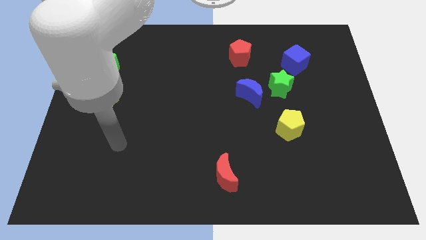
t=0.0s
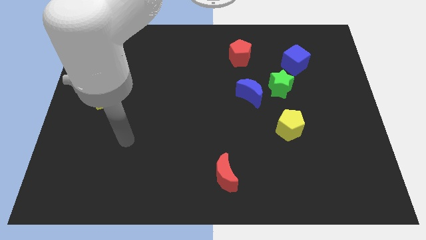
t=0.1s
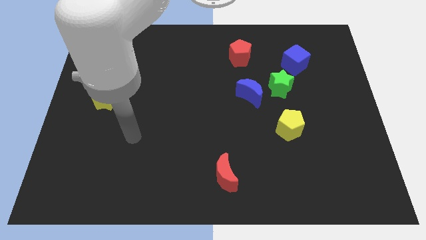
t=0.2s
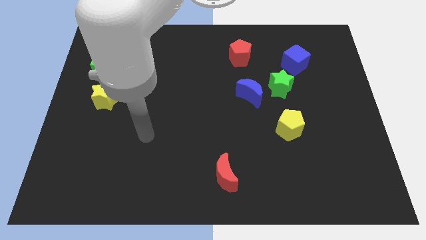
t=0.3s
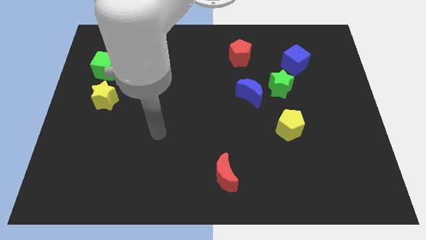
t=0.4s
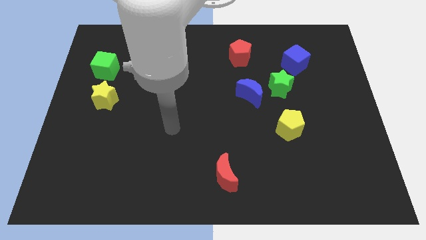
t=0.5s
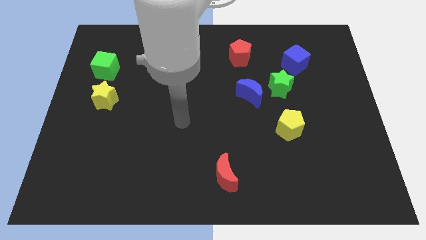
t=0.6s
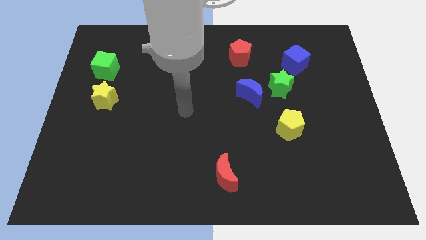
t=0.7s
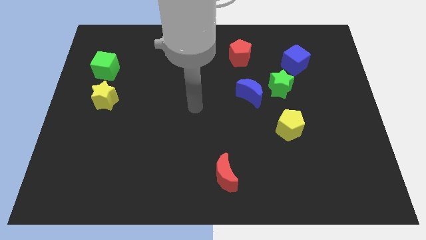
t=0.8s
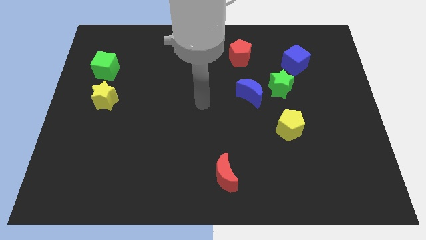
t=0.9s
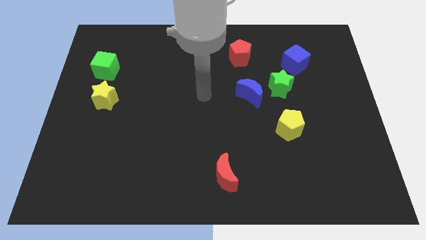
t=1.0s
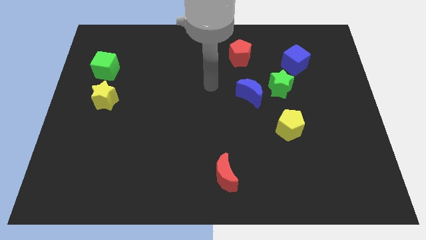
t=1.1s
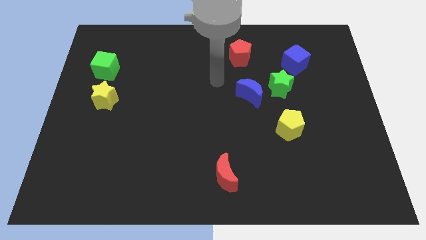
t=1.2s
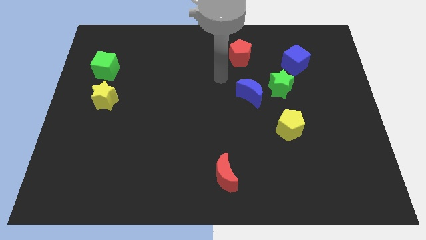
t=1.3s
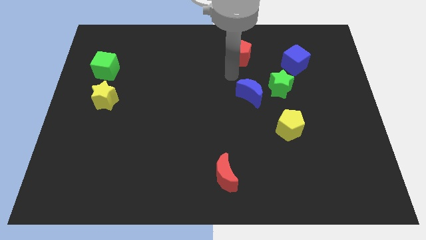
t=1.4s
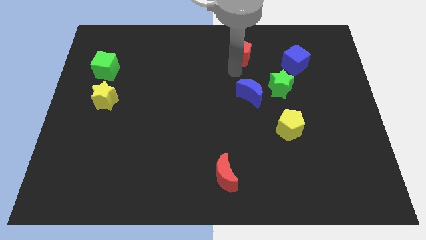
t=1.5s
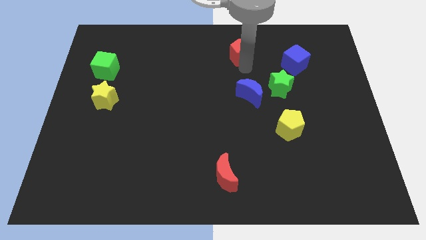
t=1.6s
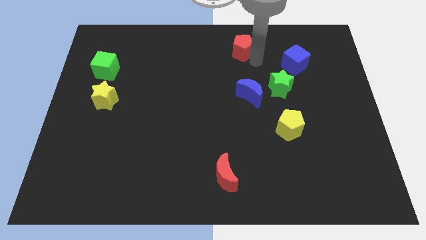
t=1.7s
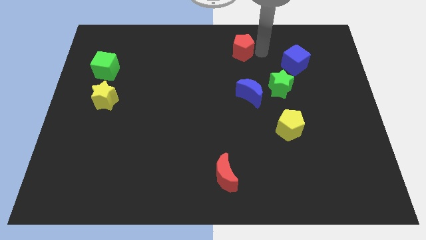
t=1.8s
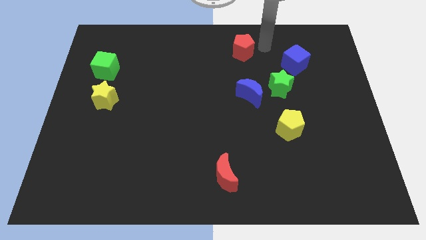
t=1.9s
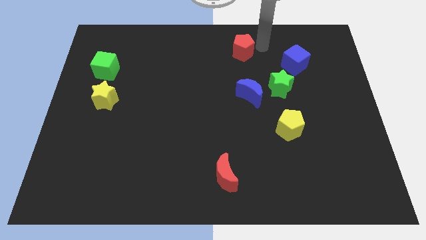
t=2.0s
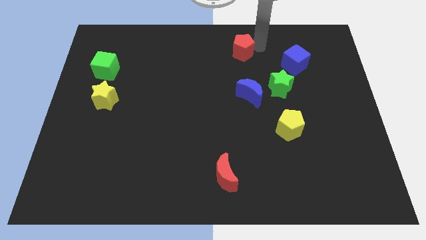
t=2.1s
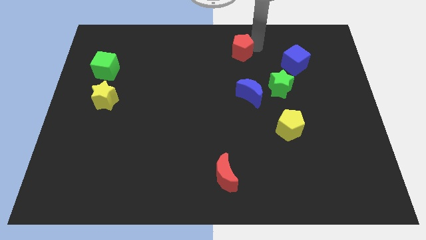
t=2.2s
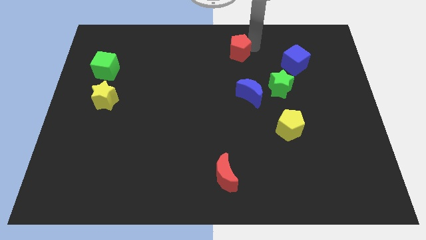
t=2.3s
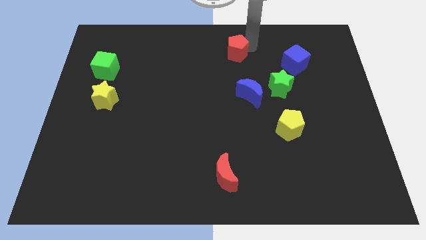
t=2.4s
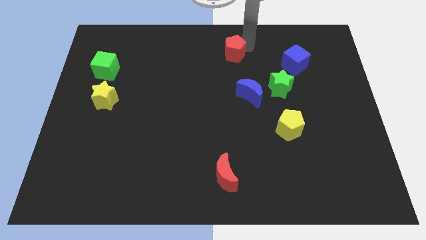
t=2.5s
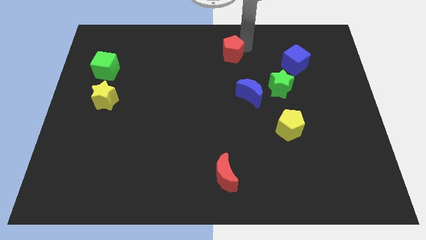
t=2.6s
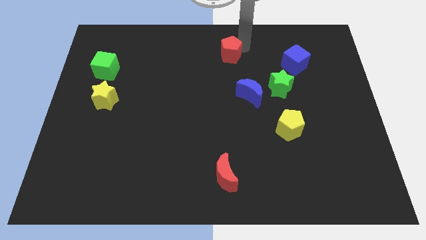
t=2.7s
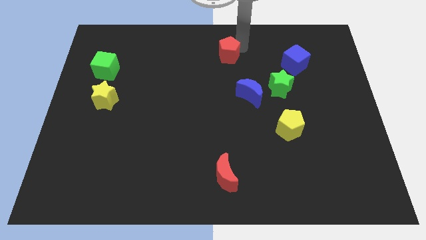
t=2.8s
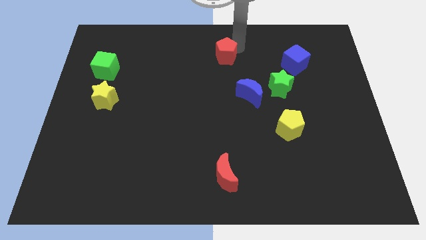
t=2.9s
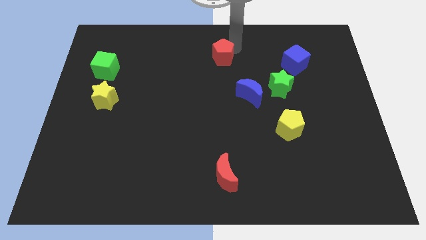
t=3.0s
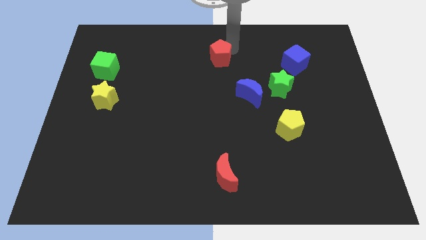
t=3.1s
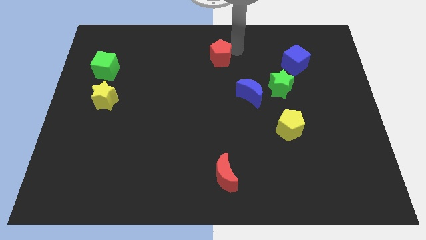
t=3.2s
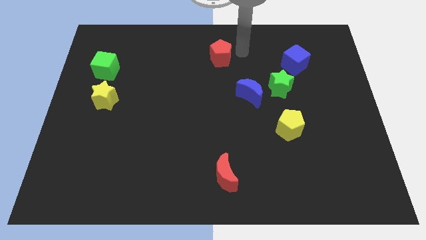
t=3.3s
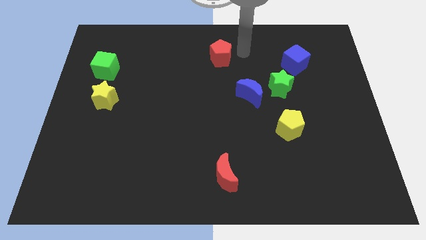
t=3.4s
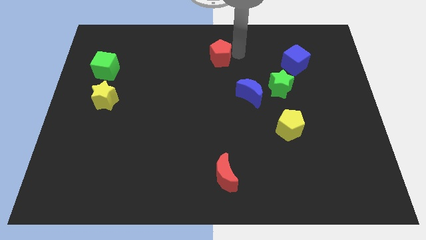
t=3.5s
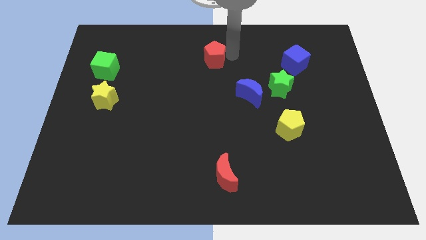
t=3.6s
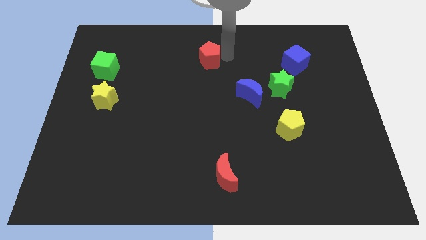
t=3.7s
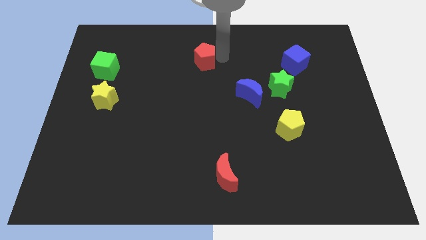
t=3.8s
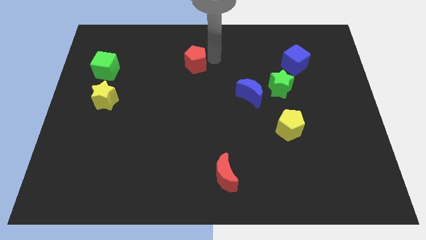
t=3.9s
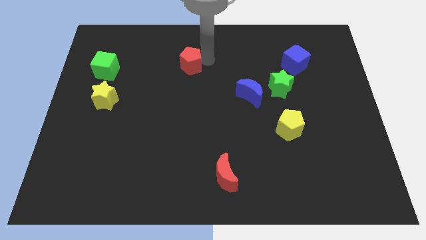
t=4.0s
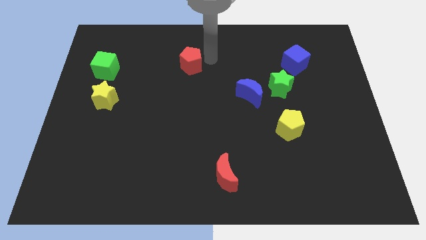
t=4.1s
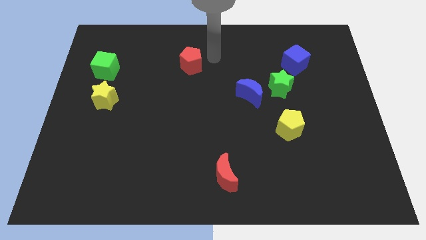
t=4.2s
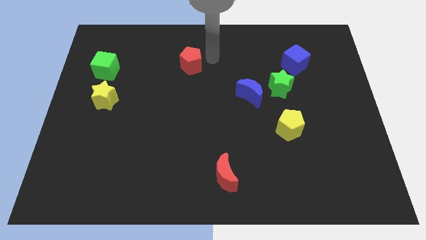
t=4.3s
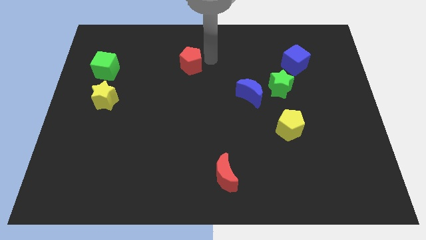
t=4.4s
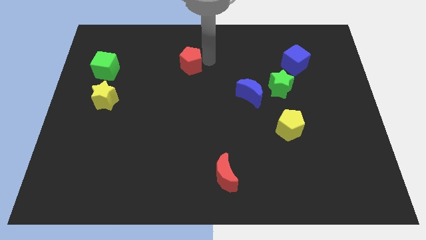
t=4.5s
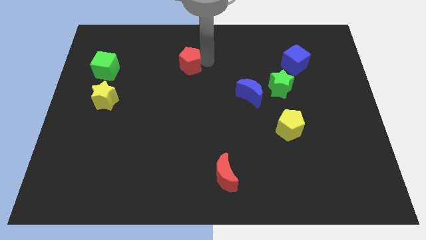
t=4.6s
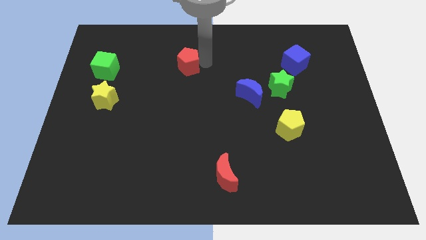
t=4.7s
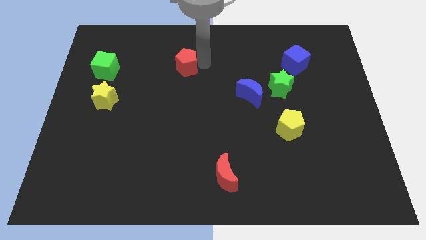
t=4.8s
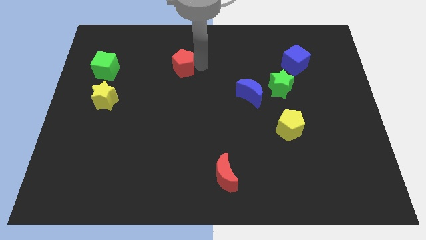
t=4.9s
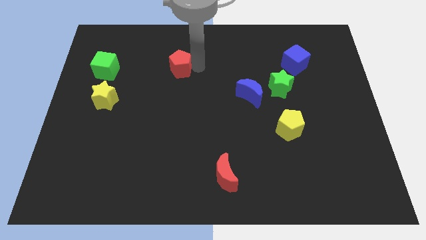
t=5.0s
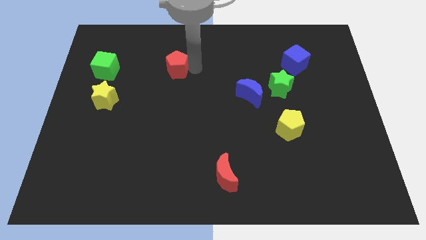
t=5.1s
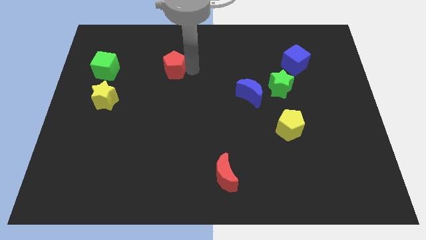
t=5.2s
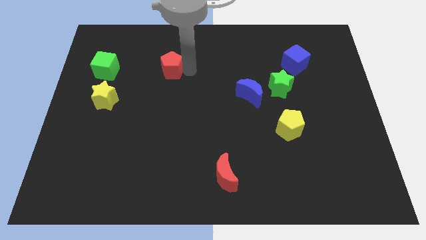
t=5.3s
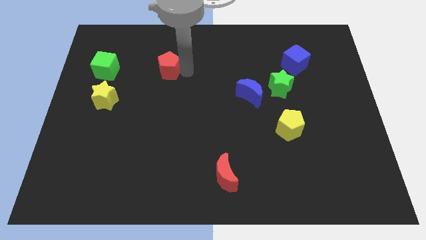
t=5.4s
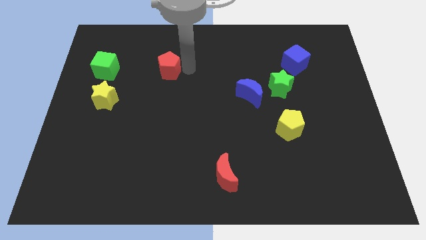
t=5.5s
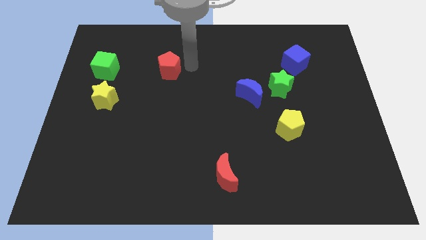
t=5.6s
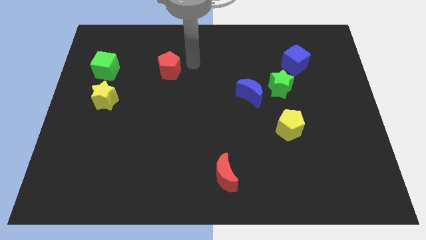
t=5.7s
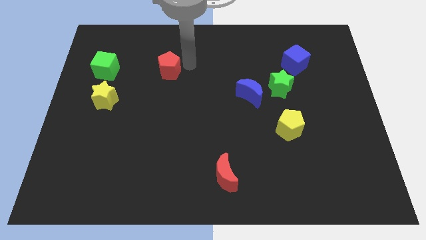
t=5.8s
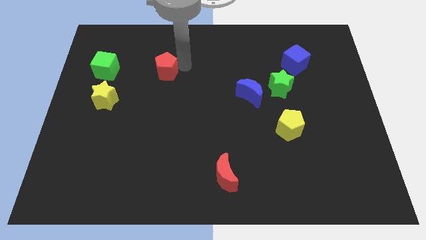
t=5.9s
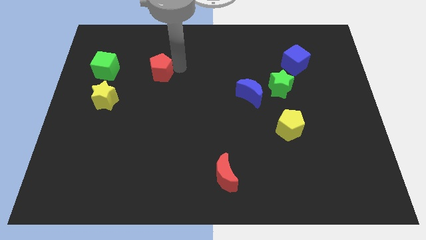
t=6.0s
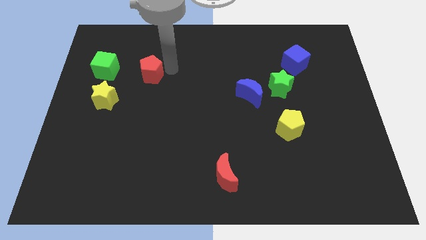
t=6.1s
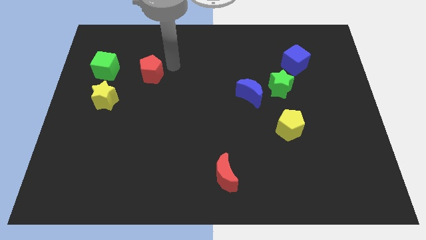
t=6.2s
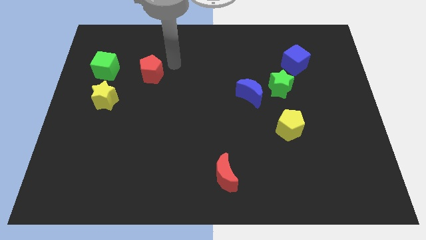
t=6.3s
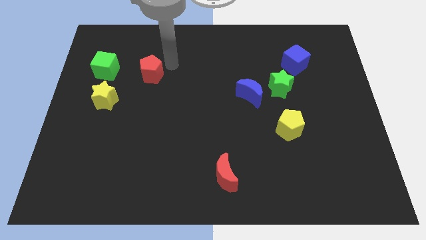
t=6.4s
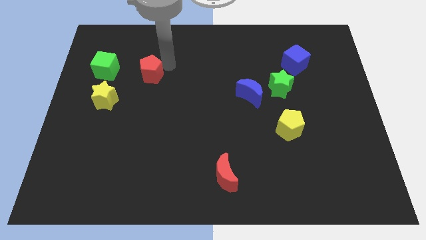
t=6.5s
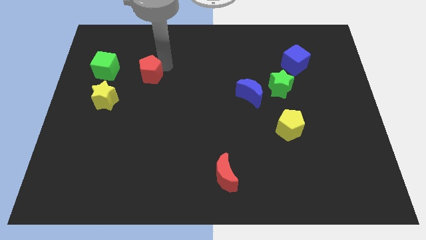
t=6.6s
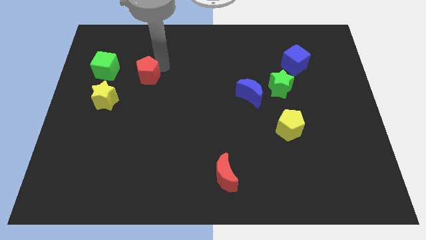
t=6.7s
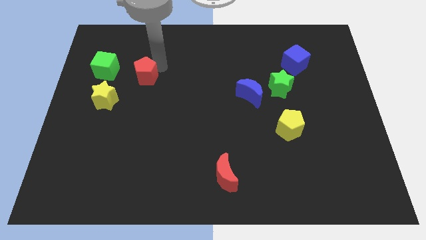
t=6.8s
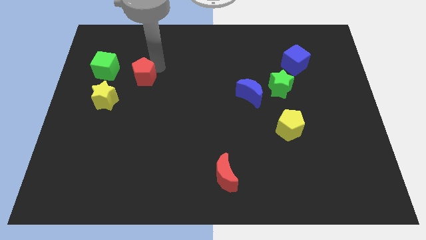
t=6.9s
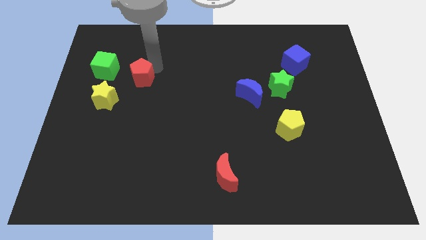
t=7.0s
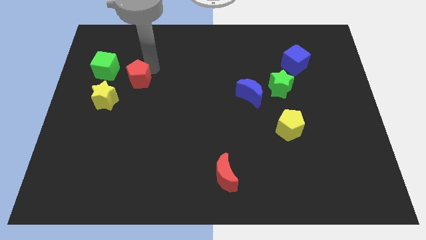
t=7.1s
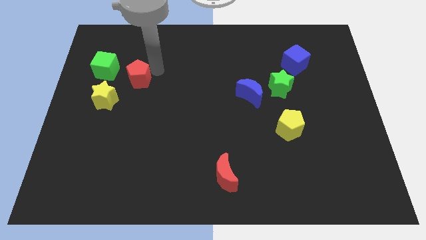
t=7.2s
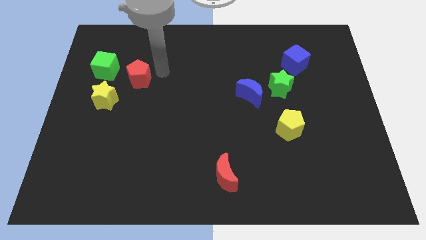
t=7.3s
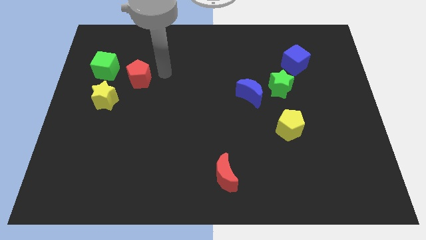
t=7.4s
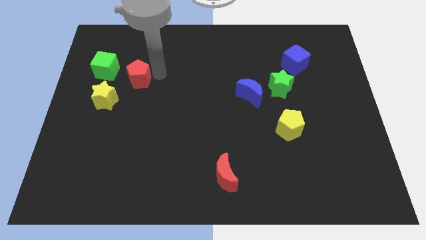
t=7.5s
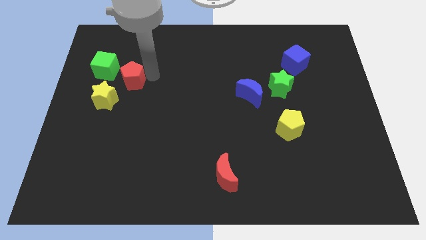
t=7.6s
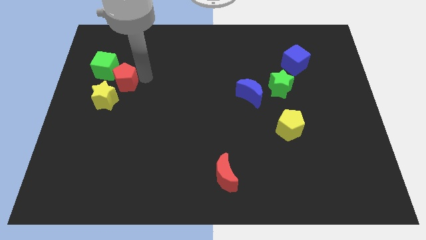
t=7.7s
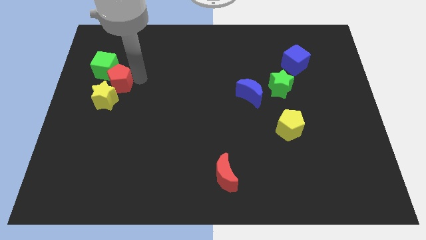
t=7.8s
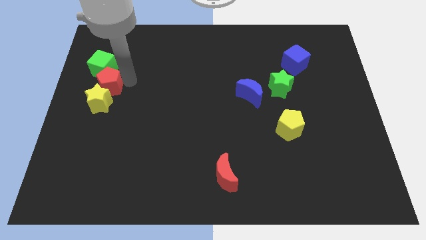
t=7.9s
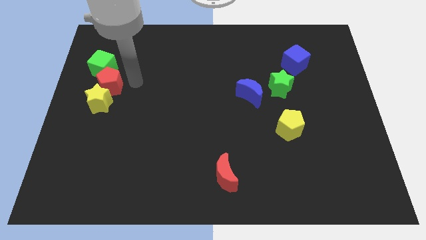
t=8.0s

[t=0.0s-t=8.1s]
slide the red pentagon to the left side
